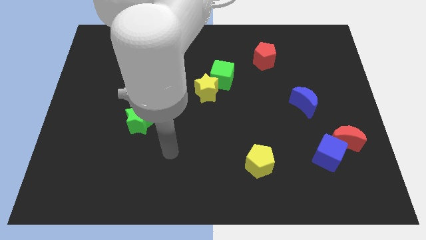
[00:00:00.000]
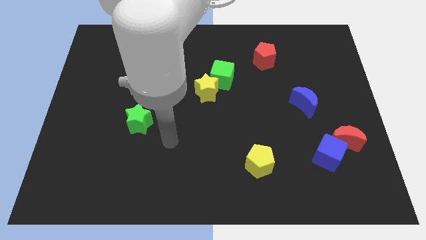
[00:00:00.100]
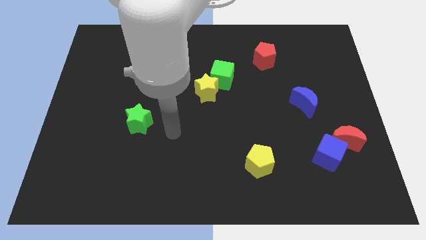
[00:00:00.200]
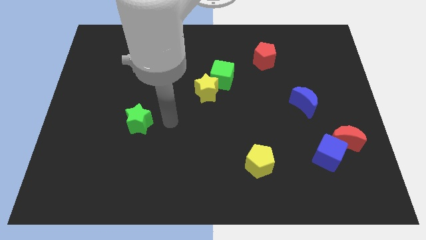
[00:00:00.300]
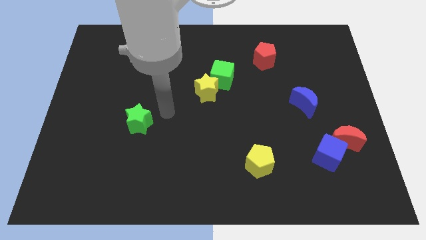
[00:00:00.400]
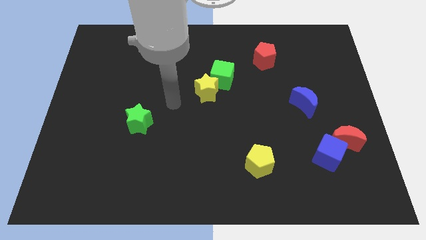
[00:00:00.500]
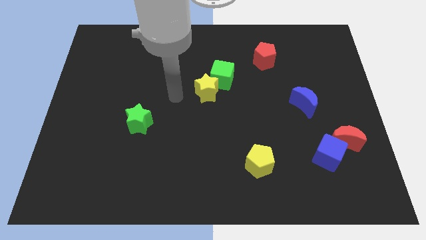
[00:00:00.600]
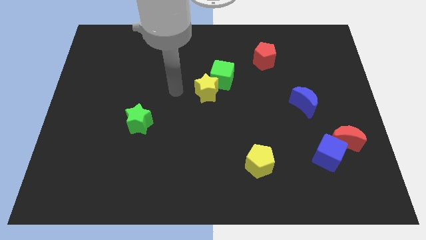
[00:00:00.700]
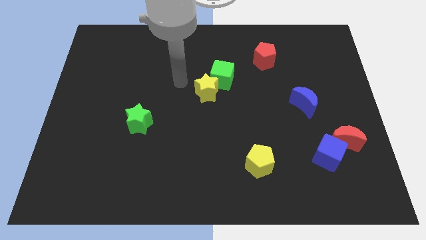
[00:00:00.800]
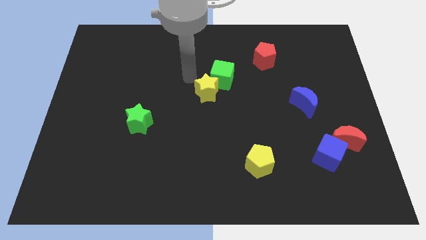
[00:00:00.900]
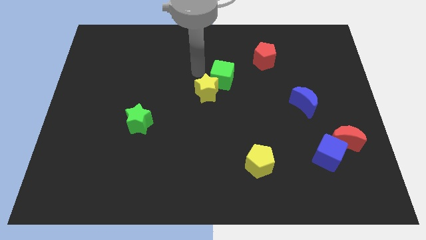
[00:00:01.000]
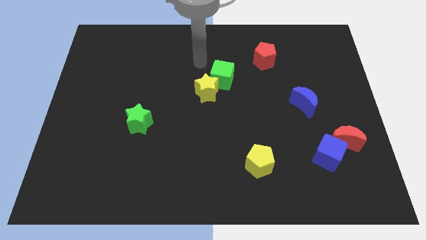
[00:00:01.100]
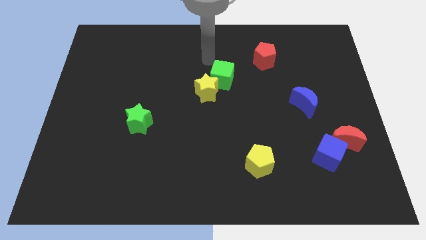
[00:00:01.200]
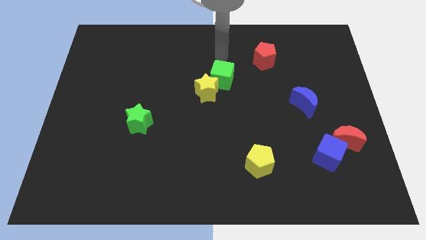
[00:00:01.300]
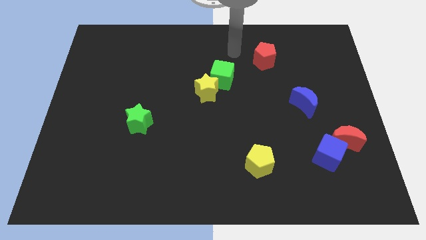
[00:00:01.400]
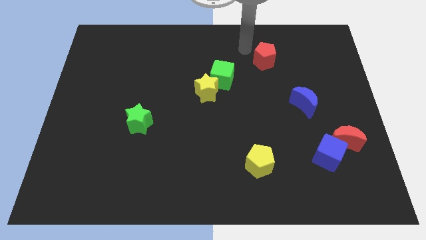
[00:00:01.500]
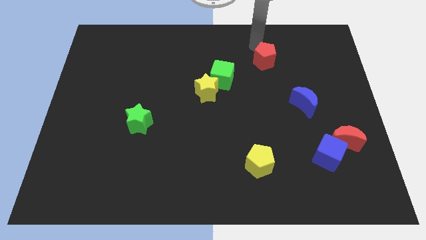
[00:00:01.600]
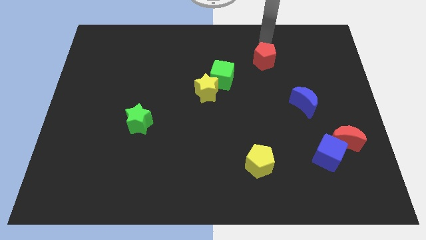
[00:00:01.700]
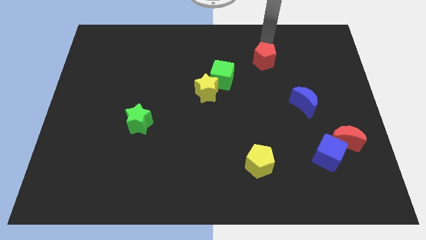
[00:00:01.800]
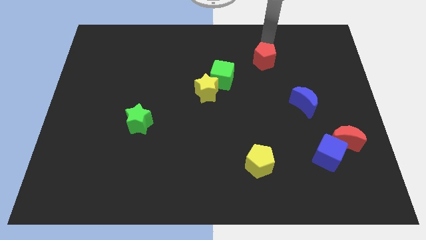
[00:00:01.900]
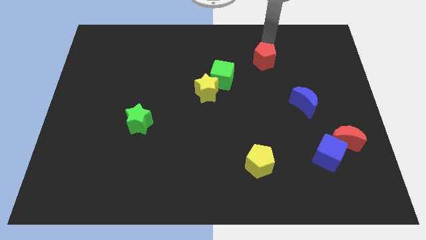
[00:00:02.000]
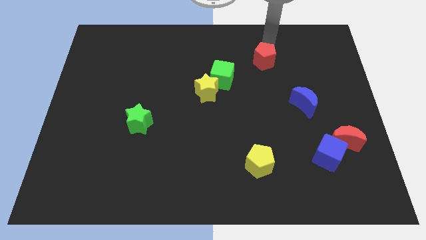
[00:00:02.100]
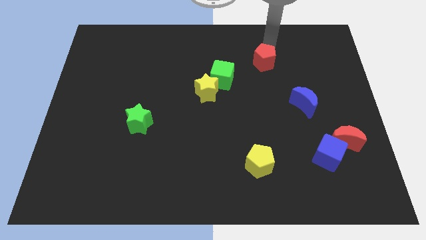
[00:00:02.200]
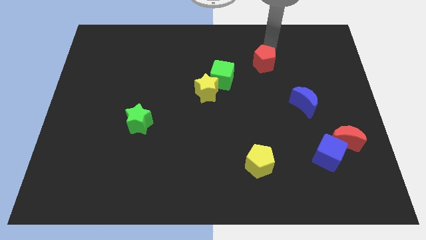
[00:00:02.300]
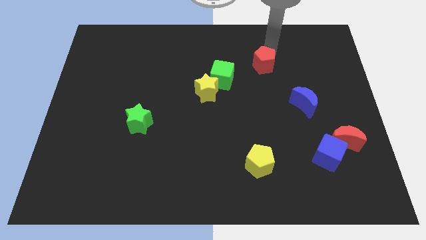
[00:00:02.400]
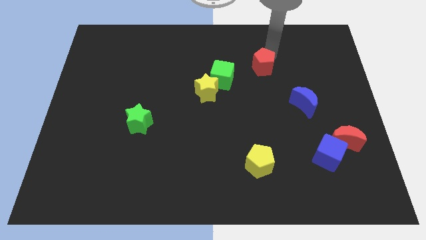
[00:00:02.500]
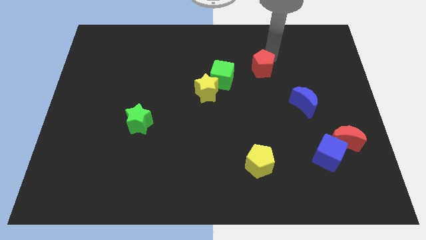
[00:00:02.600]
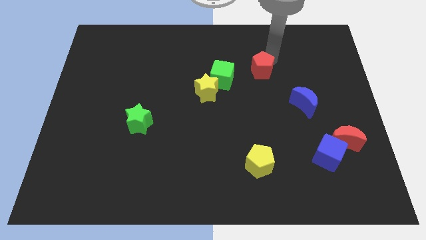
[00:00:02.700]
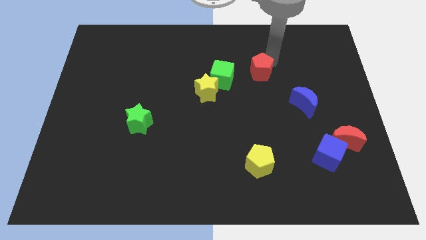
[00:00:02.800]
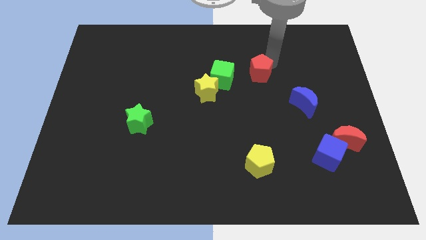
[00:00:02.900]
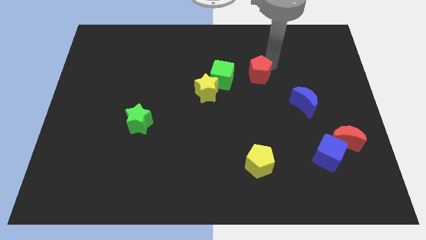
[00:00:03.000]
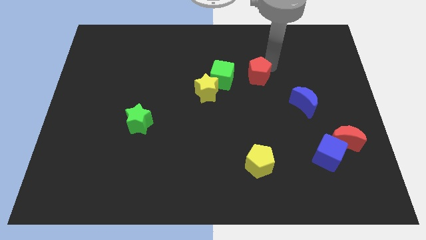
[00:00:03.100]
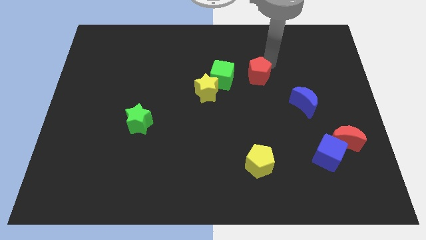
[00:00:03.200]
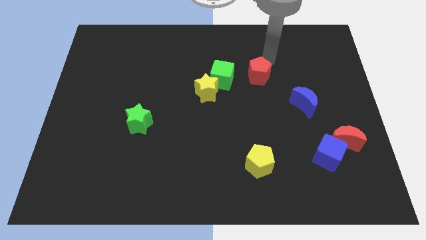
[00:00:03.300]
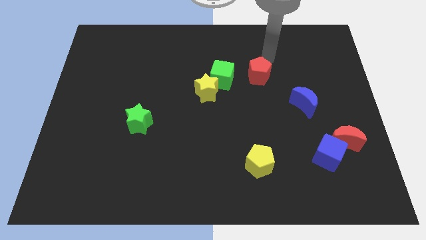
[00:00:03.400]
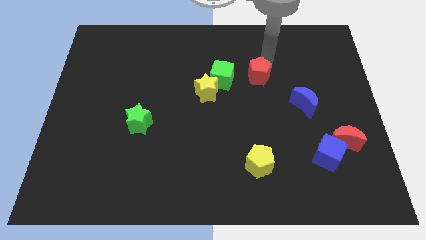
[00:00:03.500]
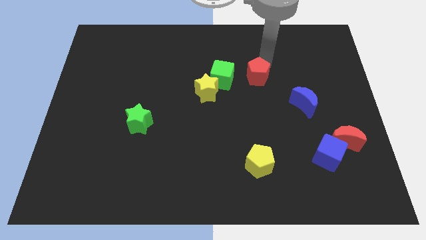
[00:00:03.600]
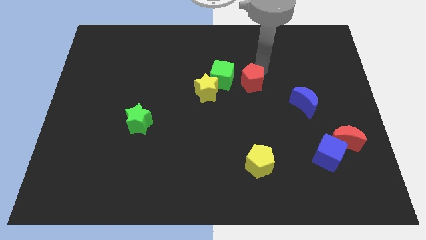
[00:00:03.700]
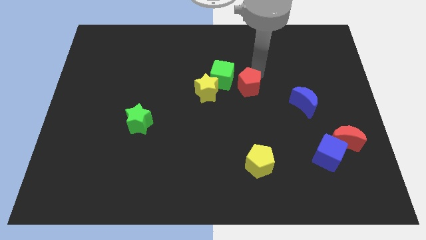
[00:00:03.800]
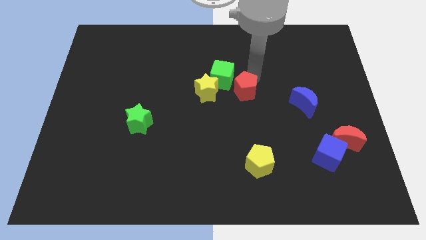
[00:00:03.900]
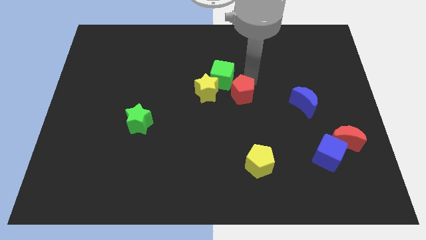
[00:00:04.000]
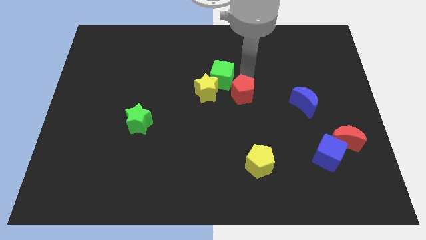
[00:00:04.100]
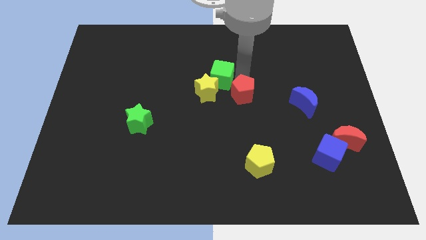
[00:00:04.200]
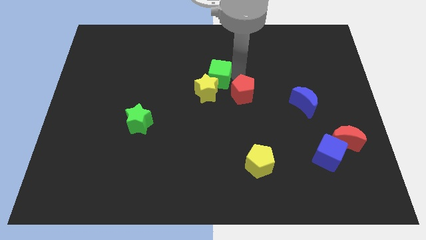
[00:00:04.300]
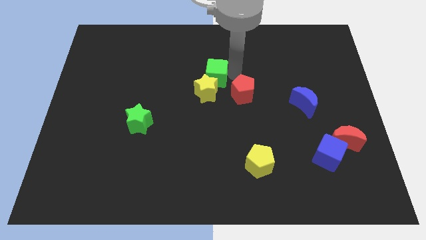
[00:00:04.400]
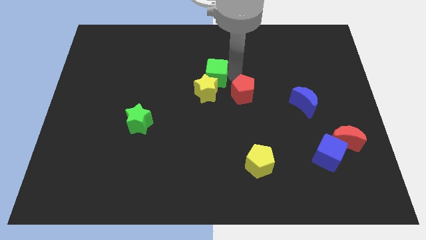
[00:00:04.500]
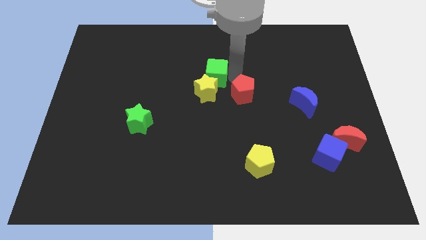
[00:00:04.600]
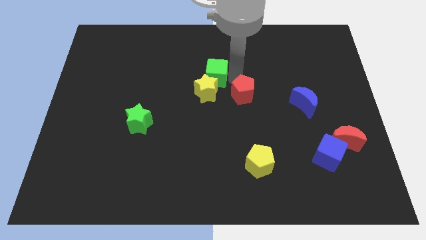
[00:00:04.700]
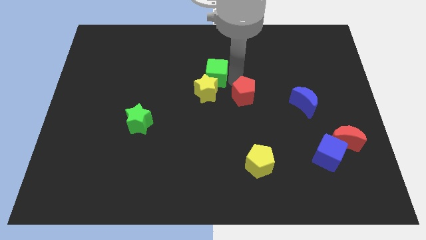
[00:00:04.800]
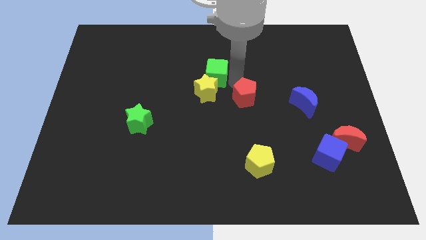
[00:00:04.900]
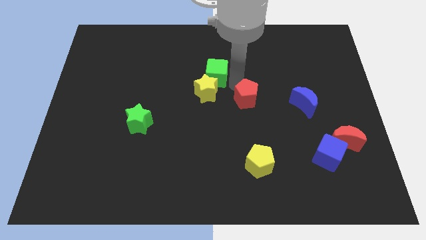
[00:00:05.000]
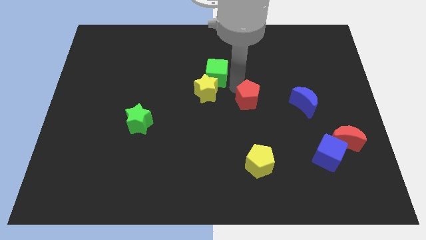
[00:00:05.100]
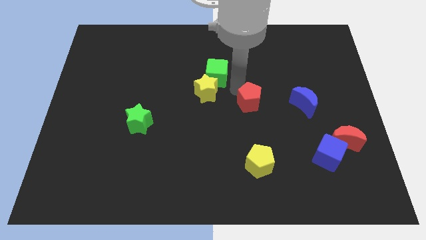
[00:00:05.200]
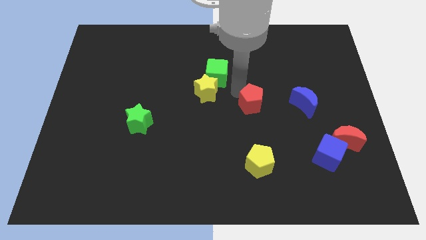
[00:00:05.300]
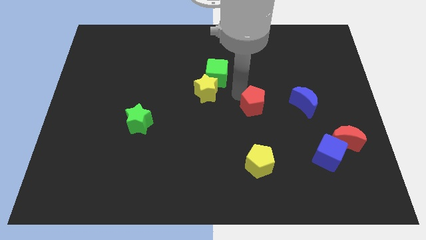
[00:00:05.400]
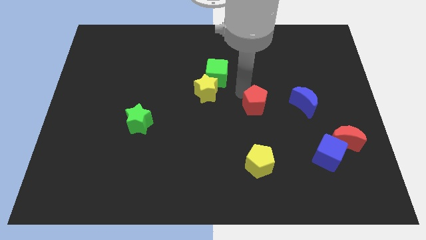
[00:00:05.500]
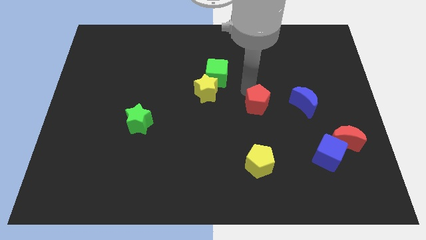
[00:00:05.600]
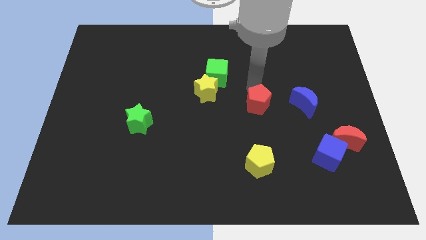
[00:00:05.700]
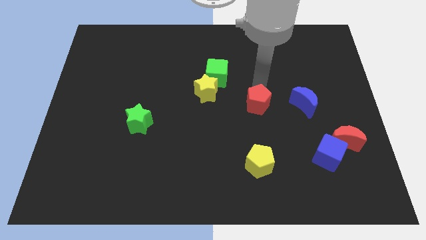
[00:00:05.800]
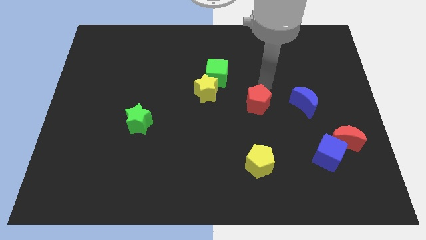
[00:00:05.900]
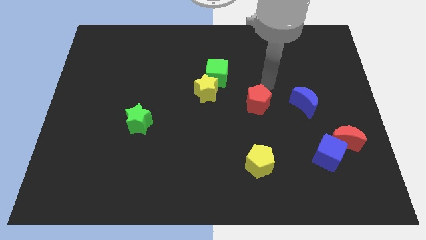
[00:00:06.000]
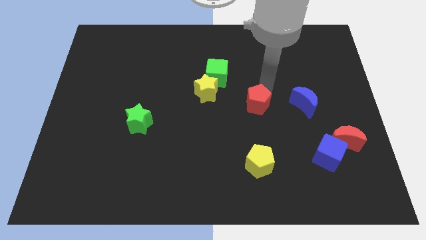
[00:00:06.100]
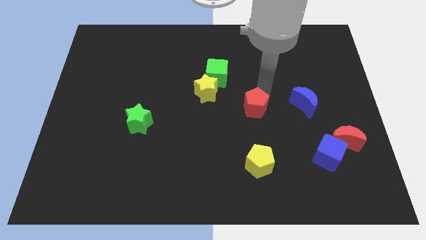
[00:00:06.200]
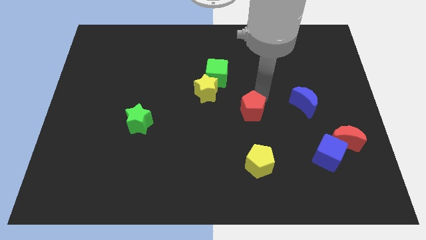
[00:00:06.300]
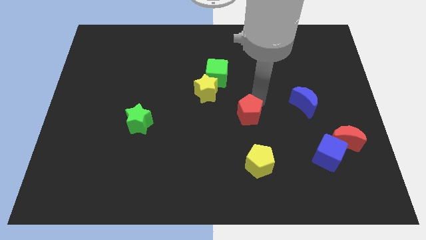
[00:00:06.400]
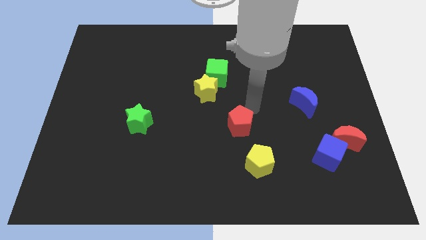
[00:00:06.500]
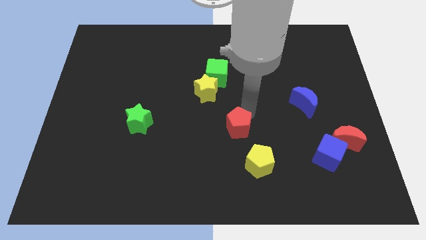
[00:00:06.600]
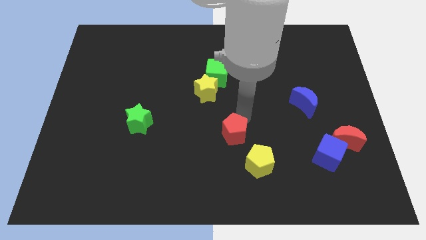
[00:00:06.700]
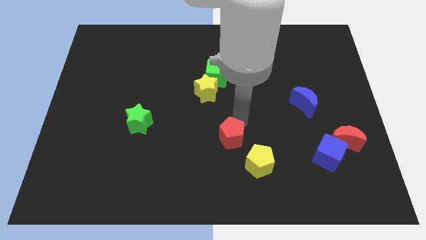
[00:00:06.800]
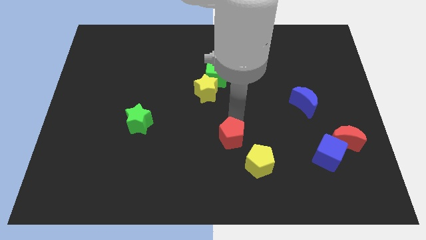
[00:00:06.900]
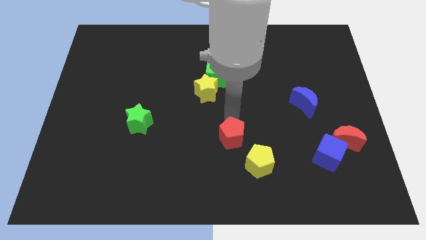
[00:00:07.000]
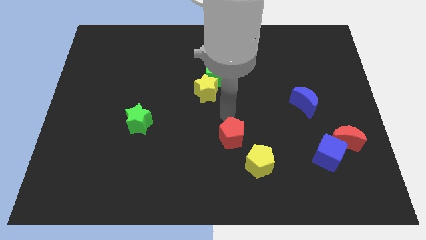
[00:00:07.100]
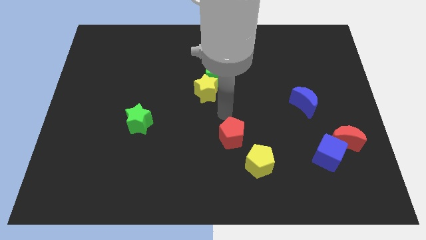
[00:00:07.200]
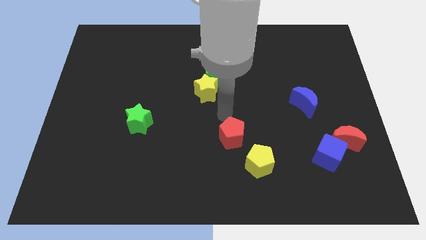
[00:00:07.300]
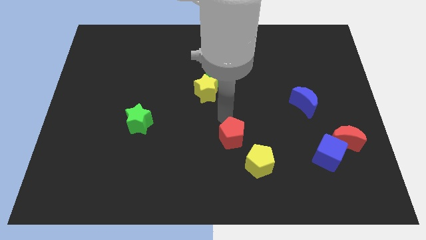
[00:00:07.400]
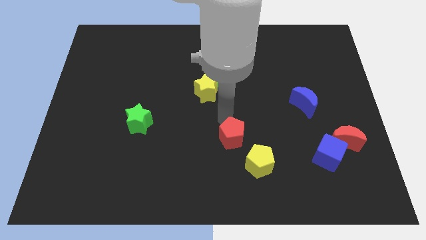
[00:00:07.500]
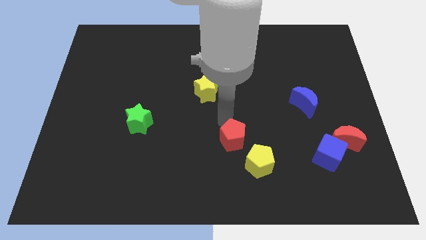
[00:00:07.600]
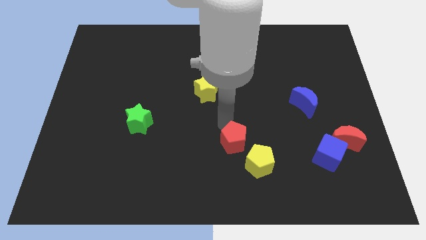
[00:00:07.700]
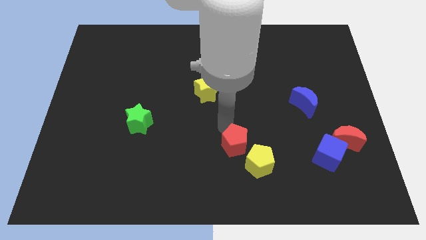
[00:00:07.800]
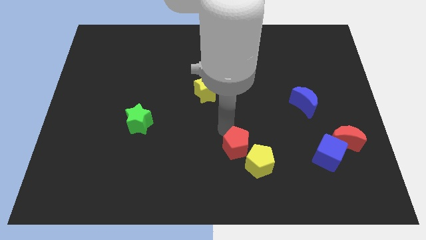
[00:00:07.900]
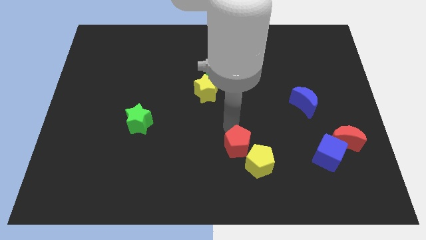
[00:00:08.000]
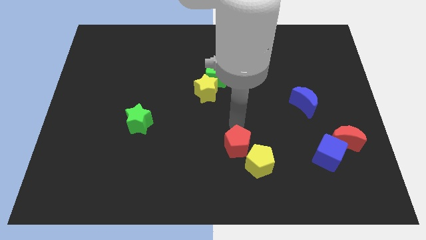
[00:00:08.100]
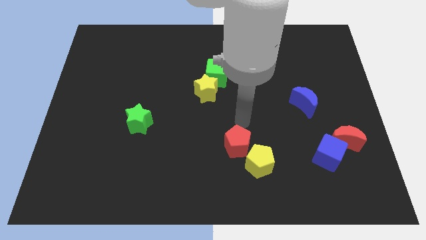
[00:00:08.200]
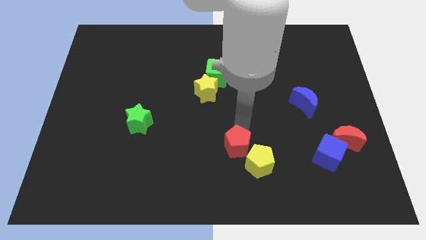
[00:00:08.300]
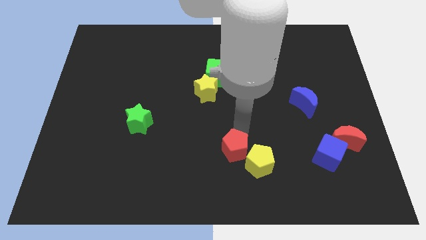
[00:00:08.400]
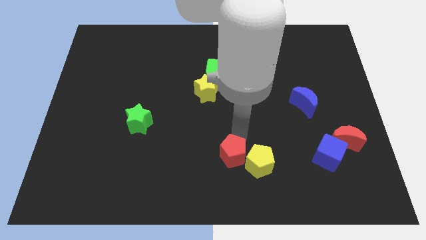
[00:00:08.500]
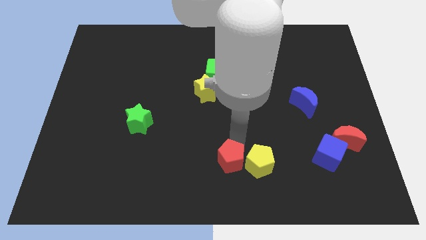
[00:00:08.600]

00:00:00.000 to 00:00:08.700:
push the red pentagon to the bottom
